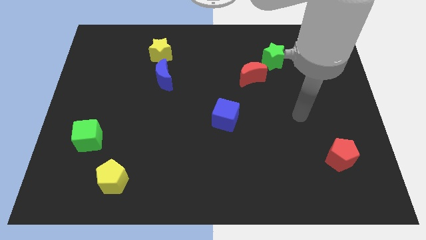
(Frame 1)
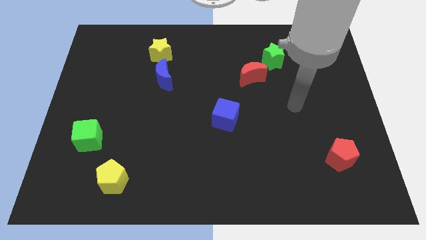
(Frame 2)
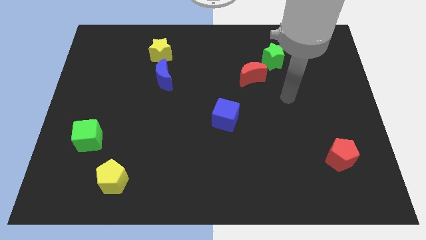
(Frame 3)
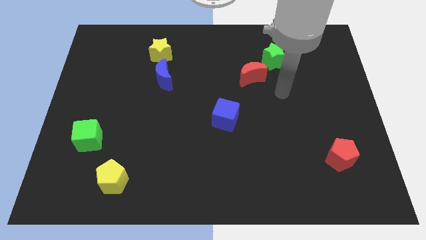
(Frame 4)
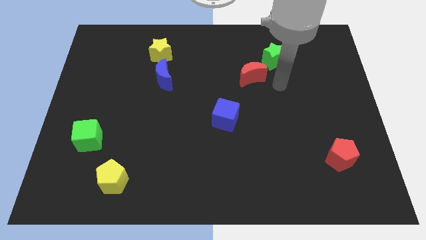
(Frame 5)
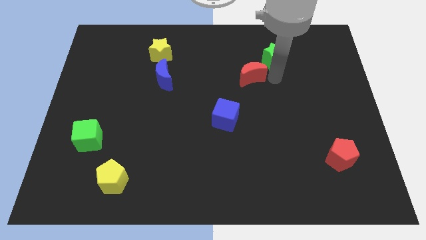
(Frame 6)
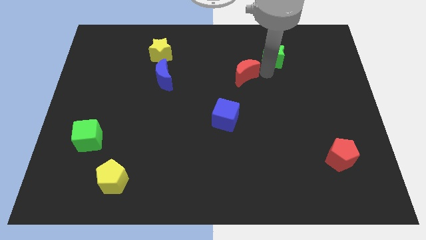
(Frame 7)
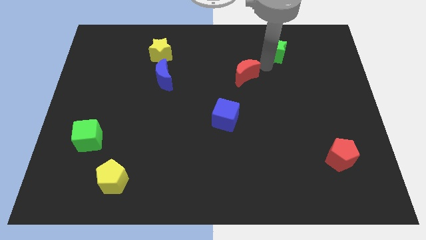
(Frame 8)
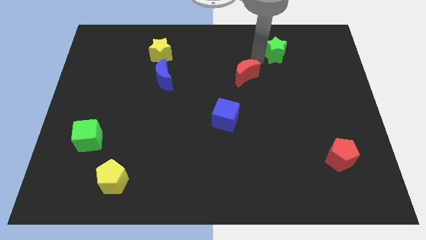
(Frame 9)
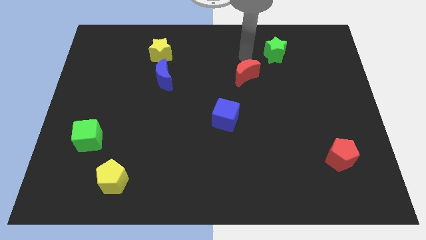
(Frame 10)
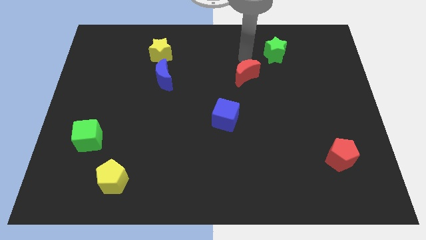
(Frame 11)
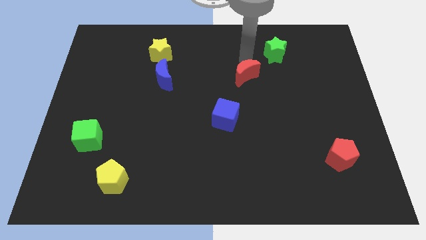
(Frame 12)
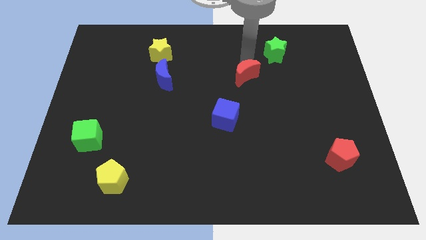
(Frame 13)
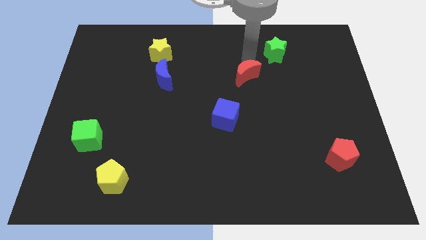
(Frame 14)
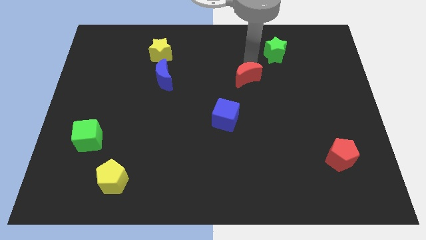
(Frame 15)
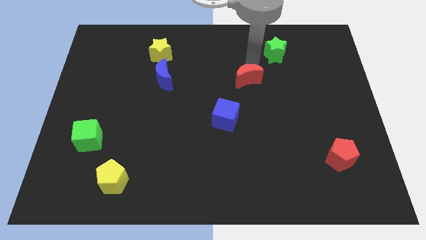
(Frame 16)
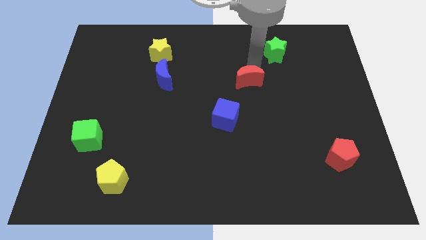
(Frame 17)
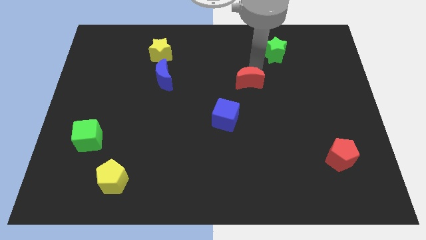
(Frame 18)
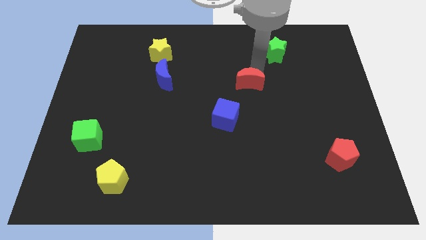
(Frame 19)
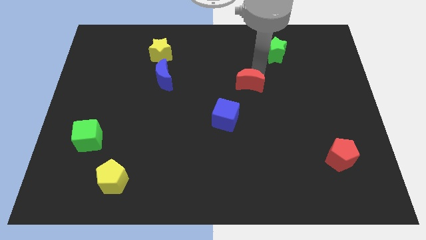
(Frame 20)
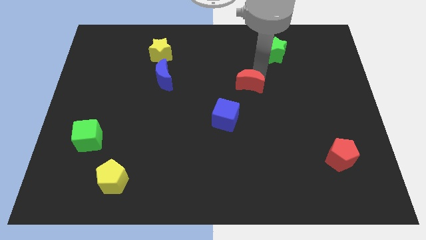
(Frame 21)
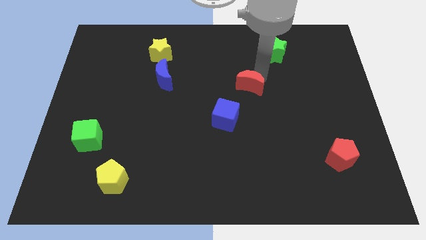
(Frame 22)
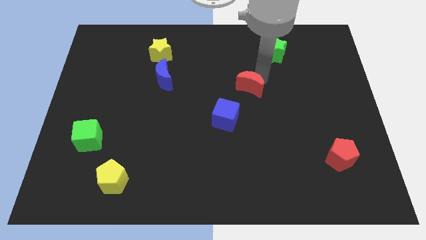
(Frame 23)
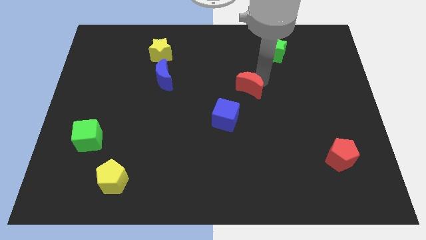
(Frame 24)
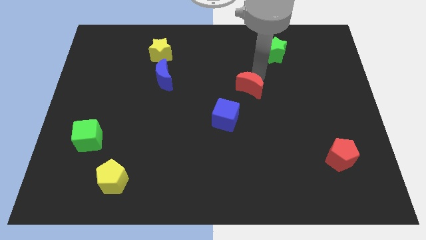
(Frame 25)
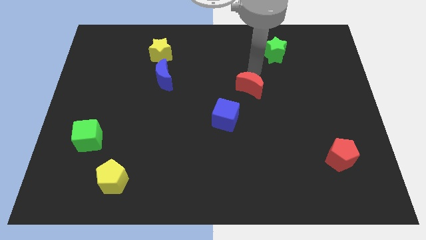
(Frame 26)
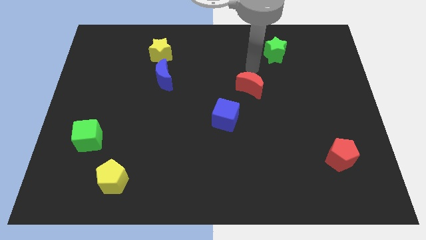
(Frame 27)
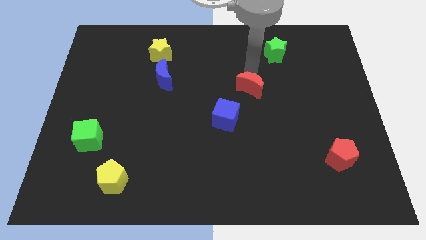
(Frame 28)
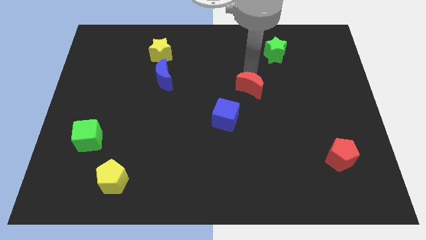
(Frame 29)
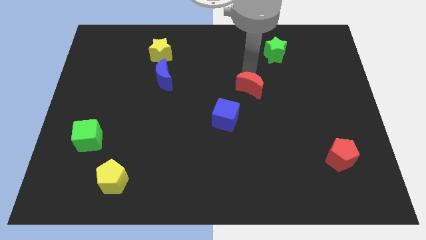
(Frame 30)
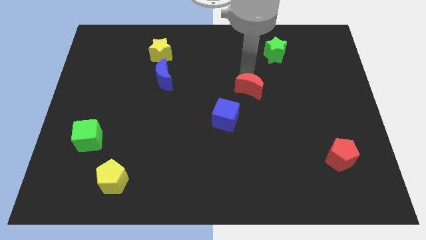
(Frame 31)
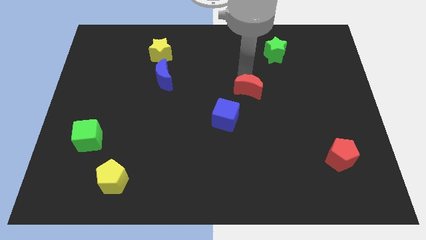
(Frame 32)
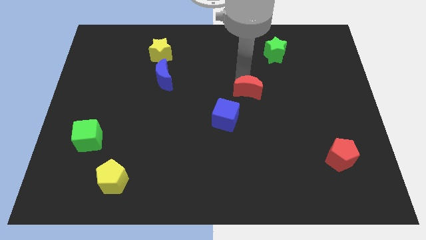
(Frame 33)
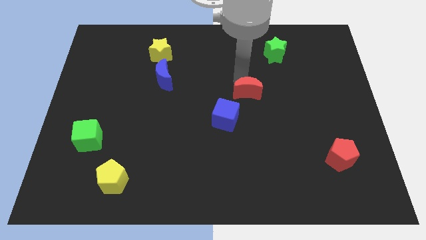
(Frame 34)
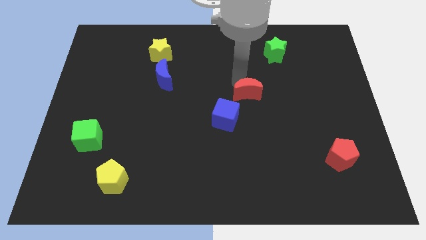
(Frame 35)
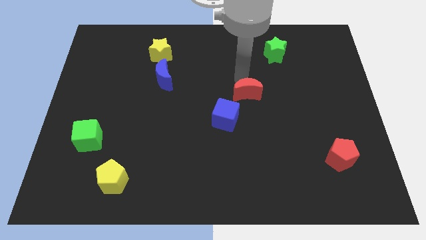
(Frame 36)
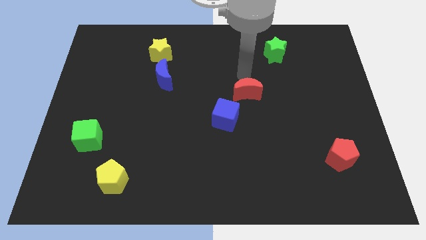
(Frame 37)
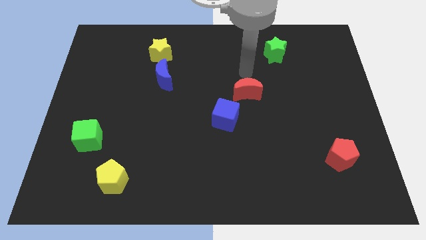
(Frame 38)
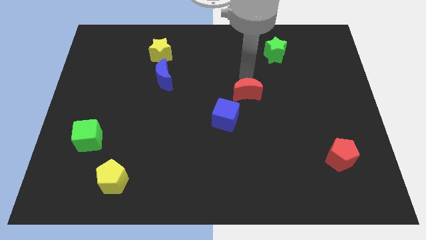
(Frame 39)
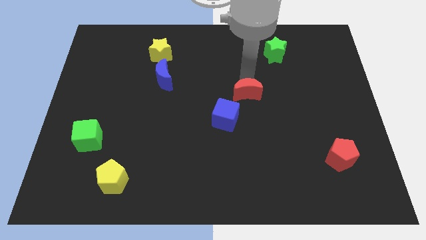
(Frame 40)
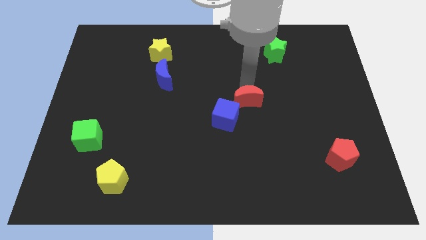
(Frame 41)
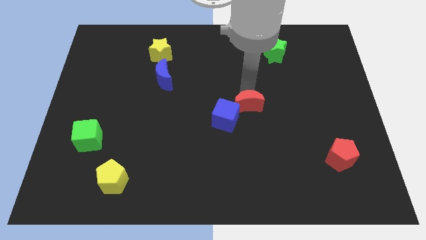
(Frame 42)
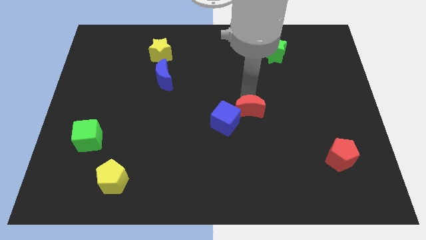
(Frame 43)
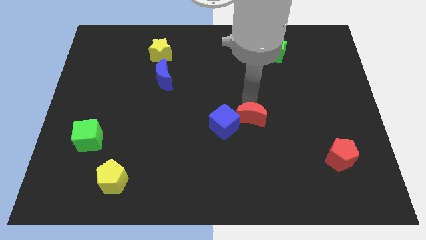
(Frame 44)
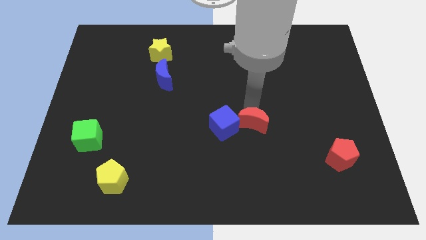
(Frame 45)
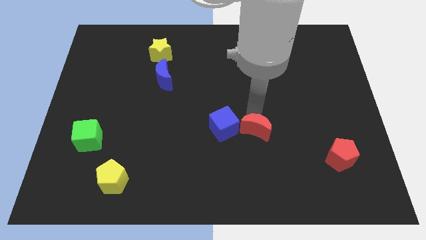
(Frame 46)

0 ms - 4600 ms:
put the red moon diagonally down and to the right of the blue cube

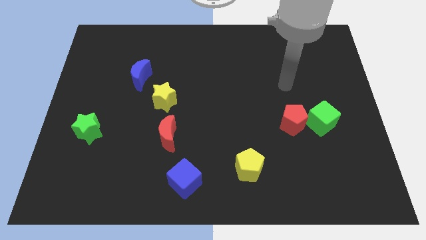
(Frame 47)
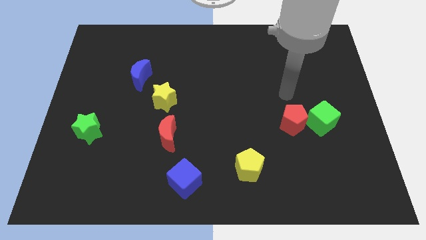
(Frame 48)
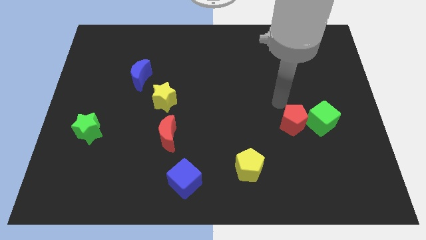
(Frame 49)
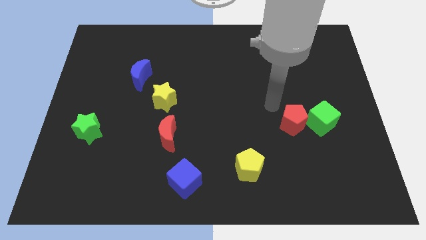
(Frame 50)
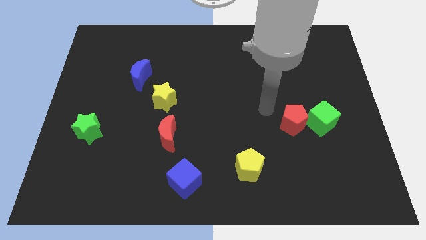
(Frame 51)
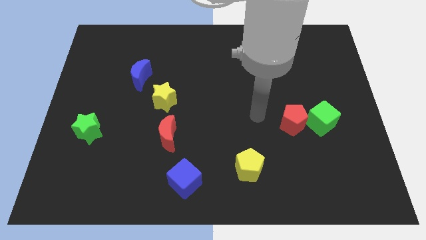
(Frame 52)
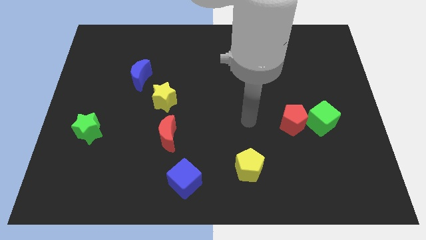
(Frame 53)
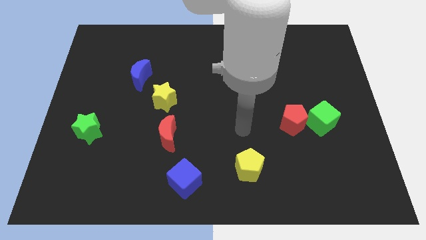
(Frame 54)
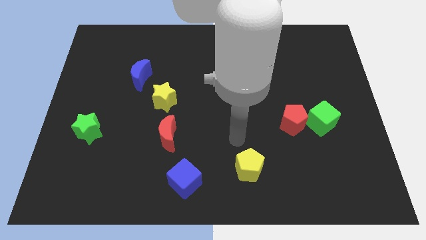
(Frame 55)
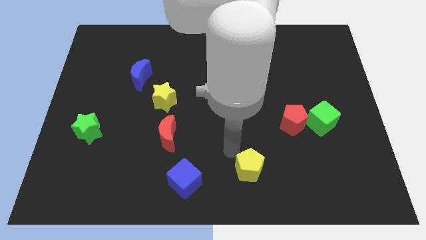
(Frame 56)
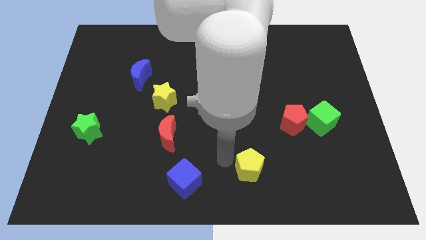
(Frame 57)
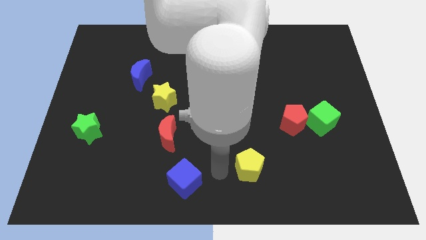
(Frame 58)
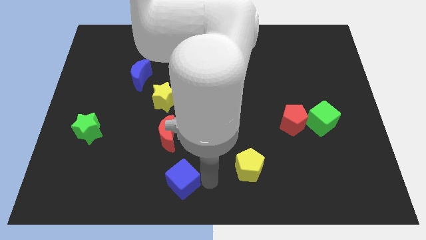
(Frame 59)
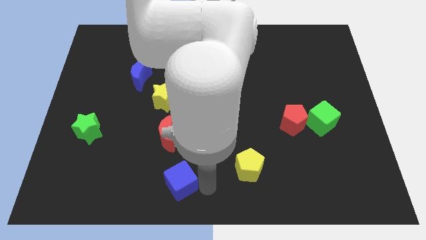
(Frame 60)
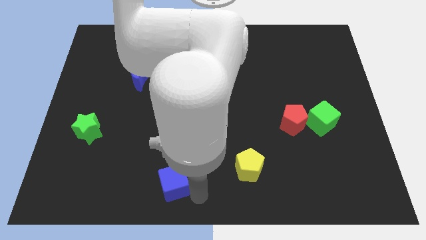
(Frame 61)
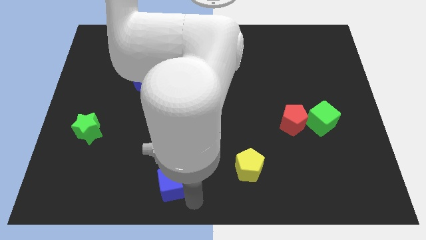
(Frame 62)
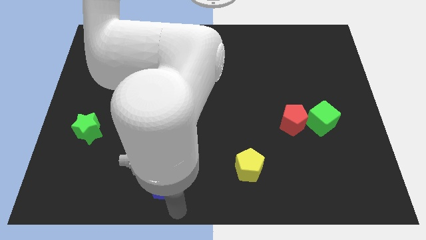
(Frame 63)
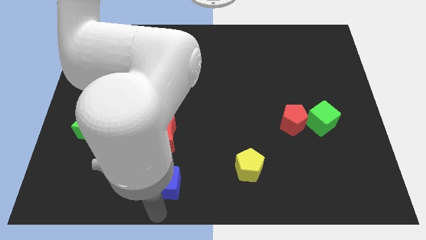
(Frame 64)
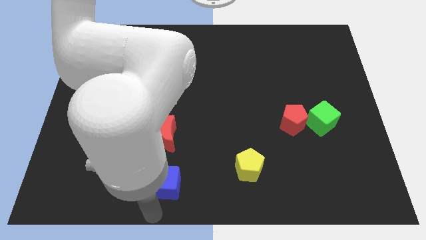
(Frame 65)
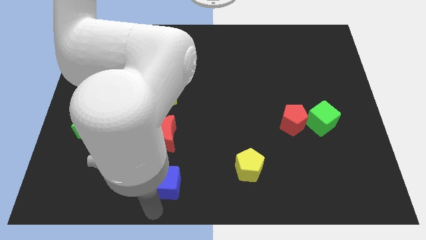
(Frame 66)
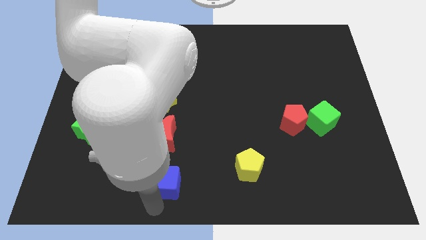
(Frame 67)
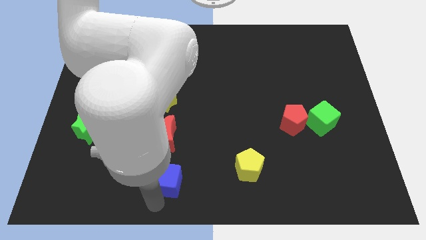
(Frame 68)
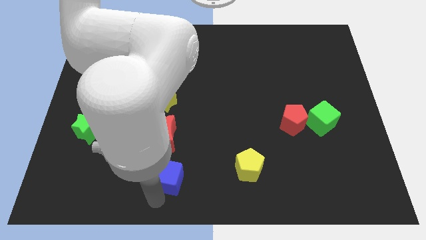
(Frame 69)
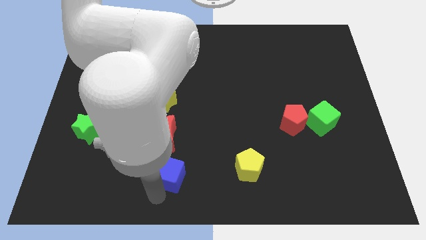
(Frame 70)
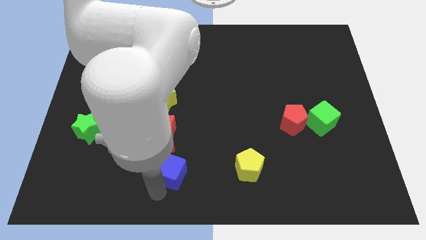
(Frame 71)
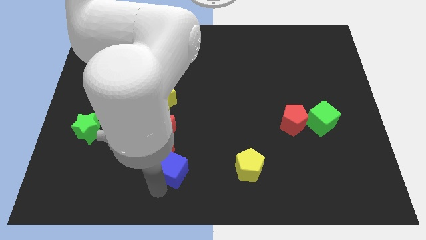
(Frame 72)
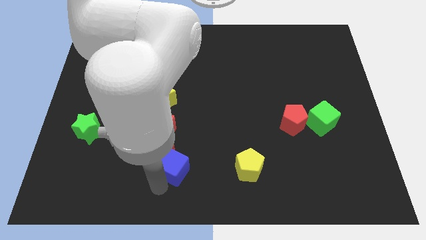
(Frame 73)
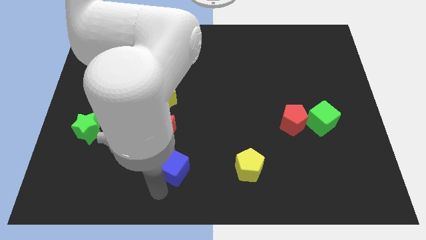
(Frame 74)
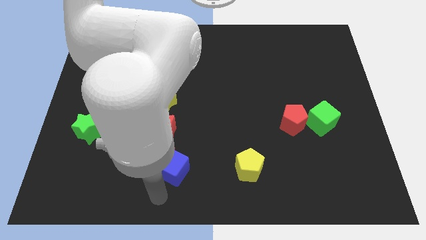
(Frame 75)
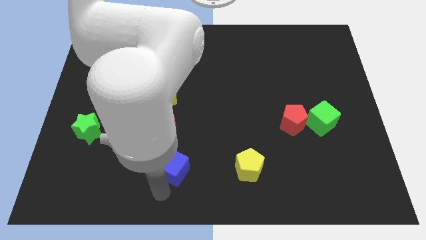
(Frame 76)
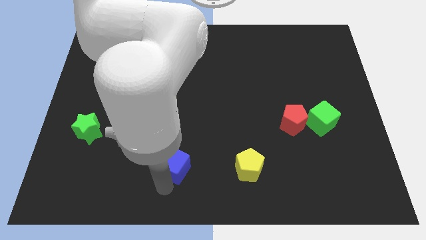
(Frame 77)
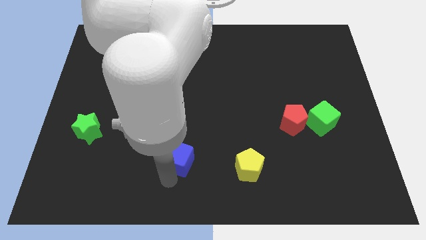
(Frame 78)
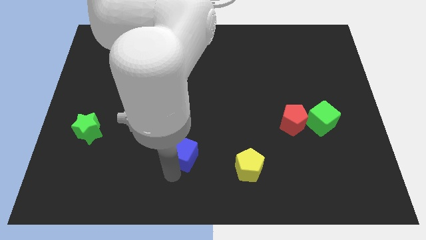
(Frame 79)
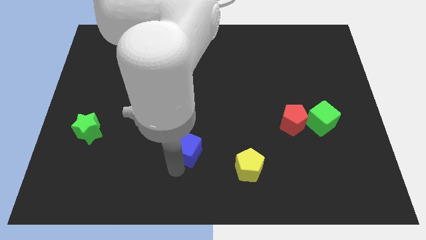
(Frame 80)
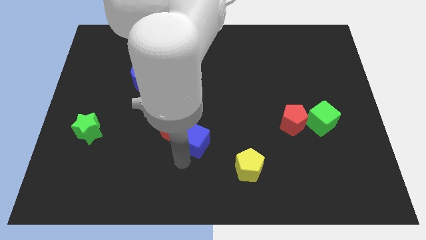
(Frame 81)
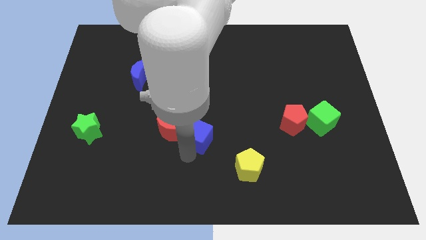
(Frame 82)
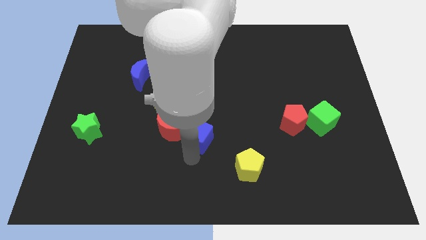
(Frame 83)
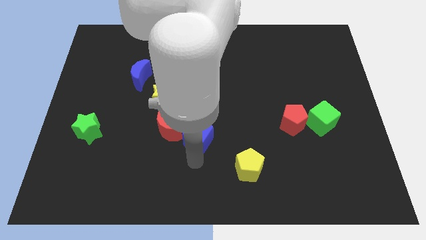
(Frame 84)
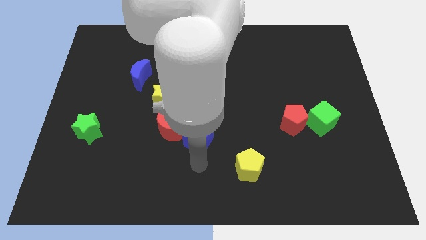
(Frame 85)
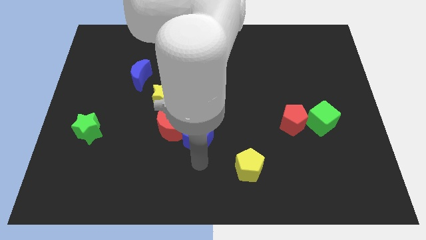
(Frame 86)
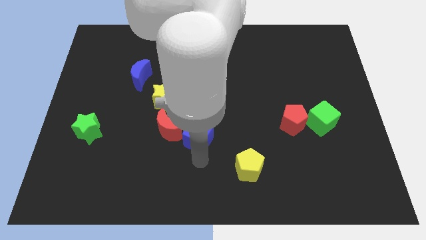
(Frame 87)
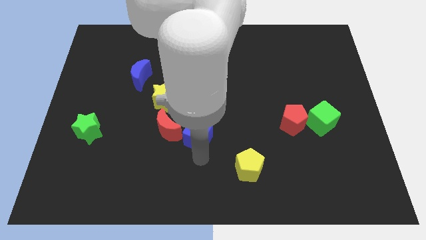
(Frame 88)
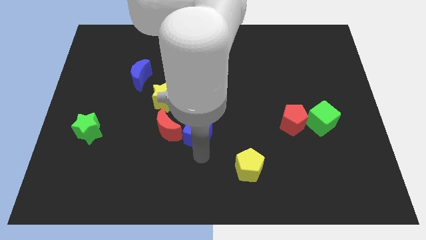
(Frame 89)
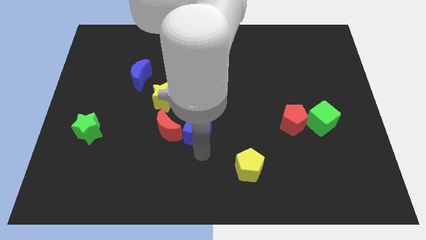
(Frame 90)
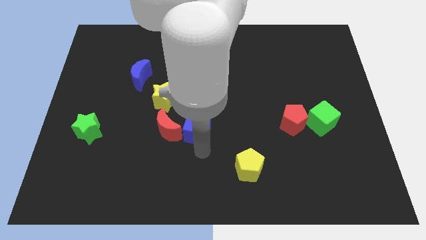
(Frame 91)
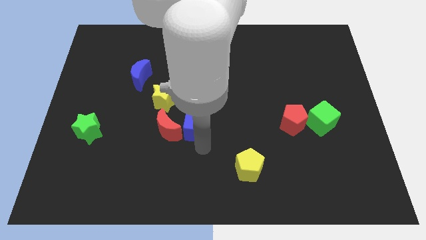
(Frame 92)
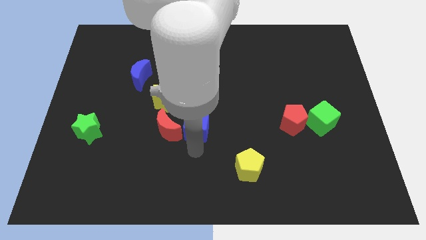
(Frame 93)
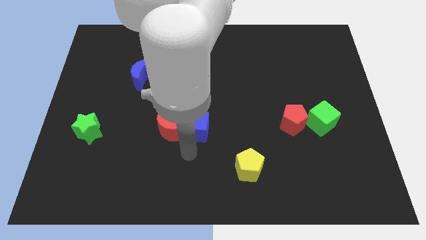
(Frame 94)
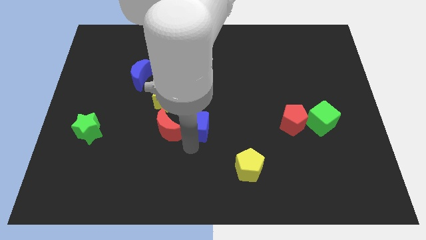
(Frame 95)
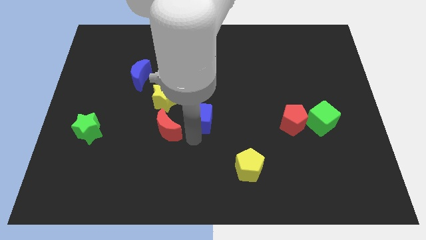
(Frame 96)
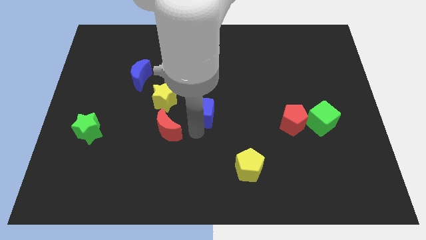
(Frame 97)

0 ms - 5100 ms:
move the blue cube just right of the yellow star
